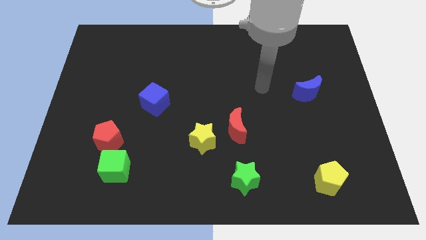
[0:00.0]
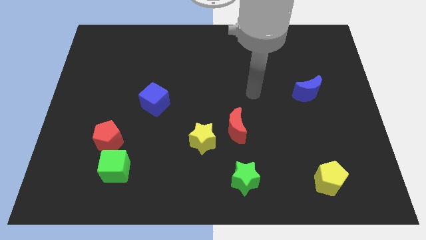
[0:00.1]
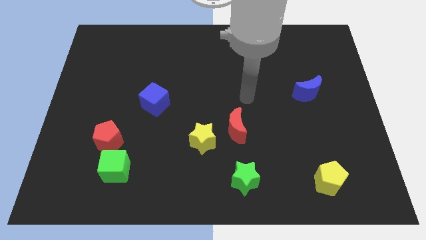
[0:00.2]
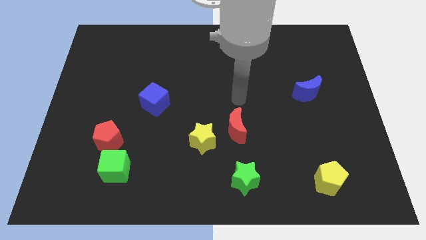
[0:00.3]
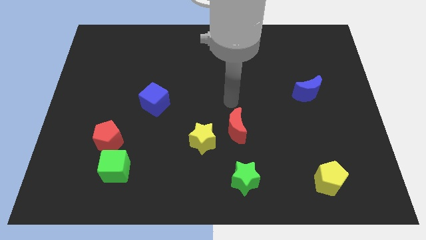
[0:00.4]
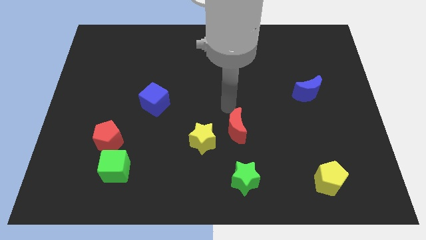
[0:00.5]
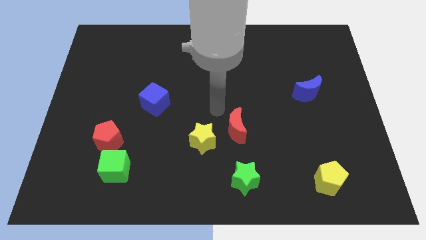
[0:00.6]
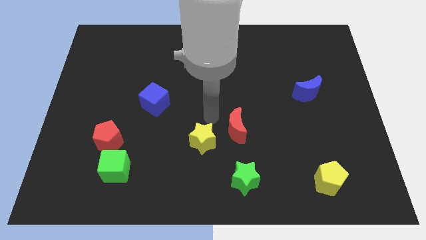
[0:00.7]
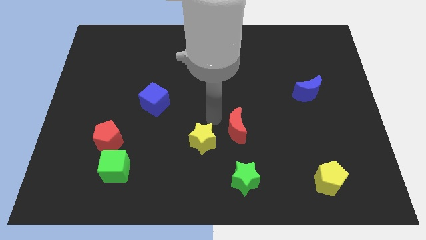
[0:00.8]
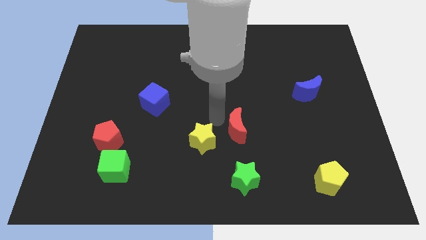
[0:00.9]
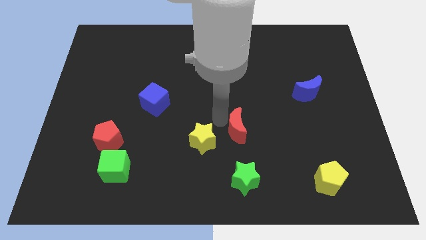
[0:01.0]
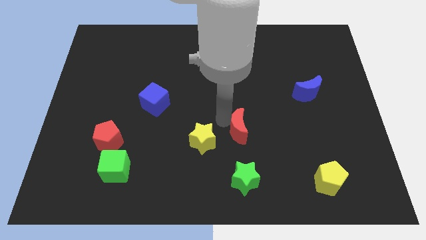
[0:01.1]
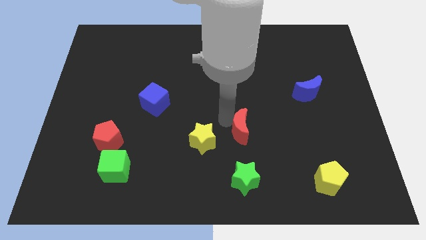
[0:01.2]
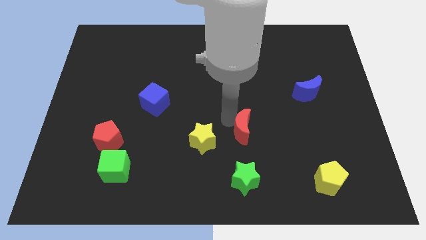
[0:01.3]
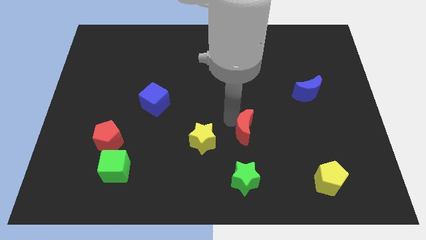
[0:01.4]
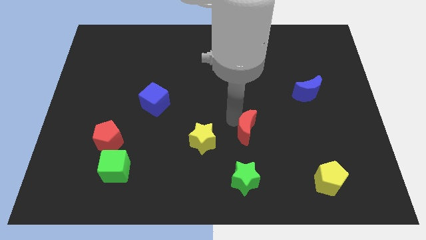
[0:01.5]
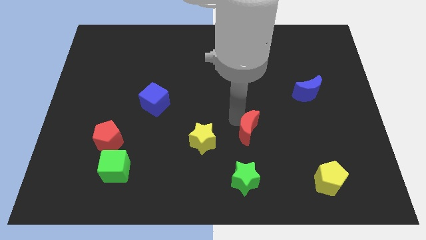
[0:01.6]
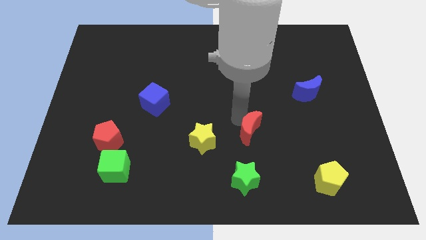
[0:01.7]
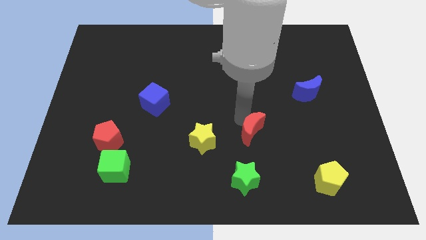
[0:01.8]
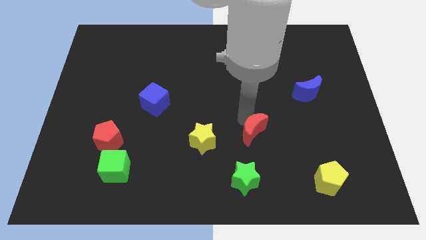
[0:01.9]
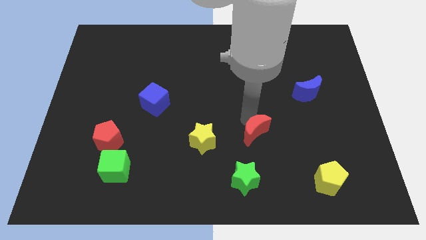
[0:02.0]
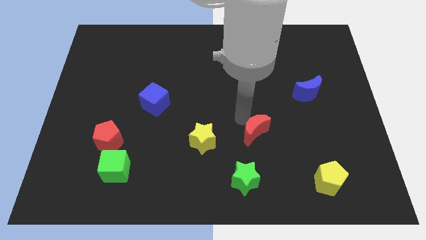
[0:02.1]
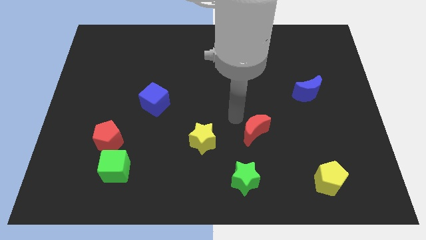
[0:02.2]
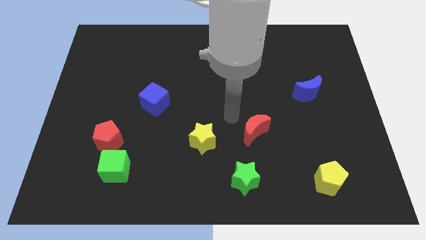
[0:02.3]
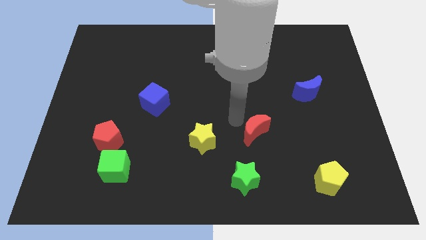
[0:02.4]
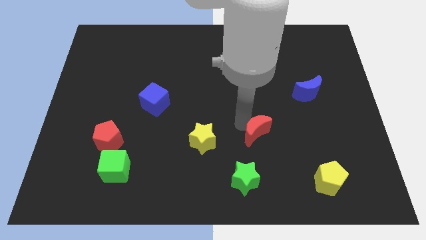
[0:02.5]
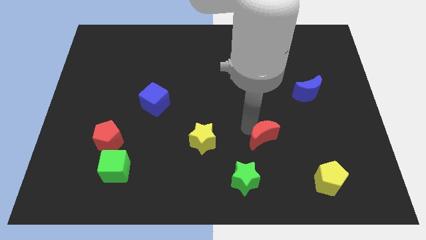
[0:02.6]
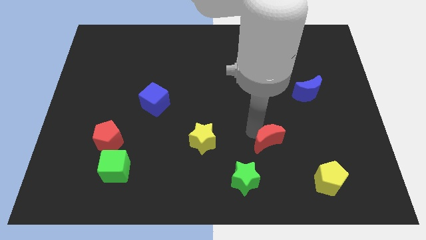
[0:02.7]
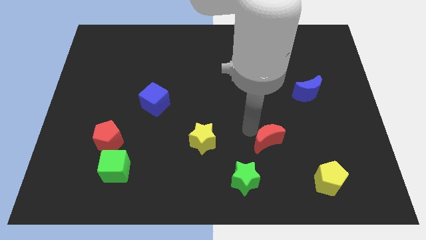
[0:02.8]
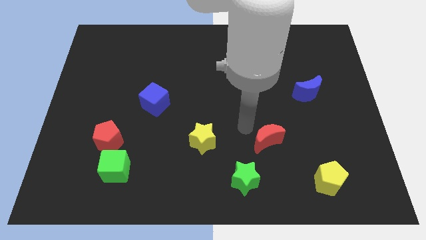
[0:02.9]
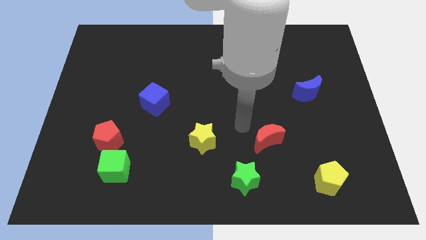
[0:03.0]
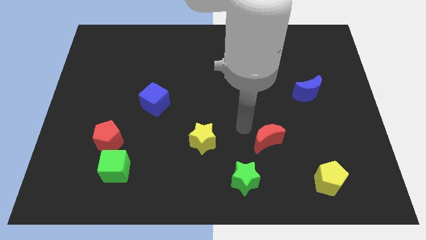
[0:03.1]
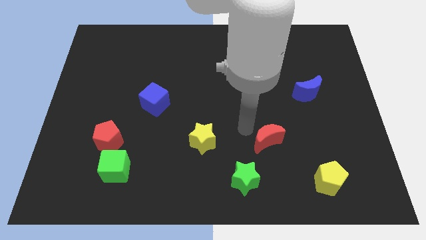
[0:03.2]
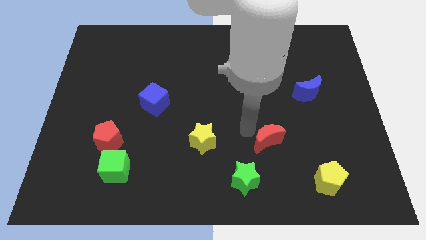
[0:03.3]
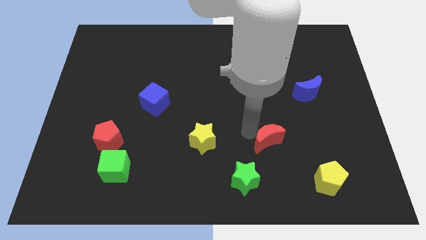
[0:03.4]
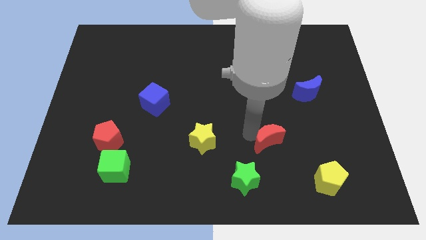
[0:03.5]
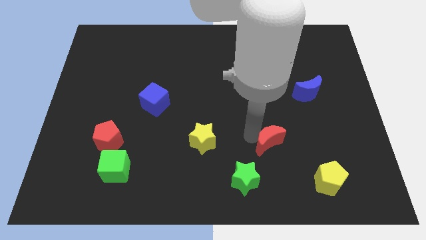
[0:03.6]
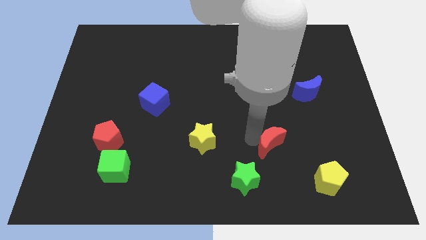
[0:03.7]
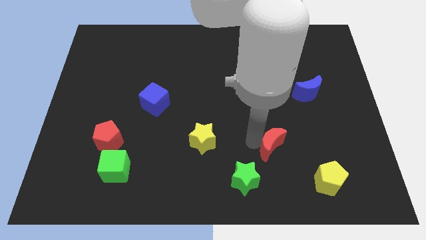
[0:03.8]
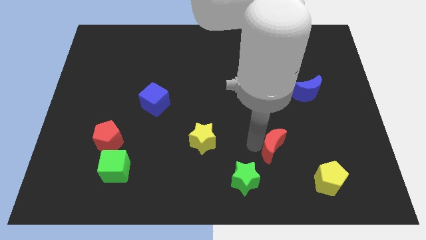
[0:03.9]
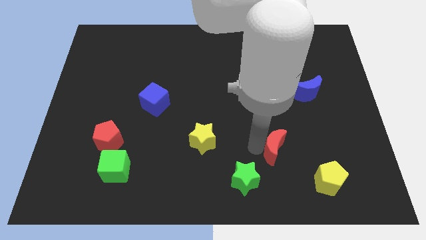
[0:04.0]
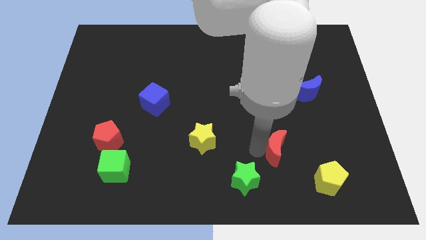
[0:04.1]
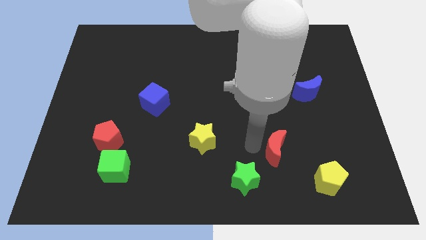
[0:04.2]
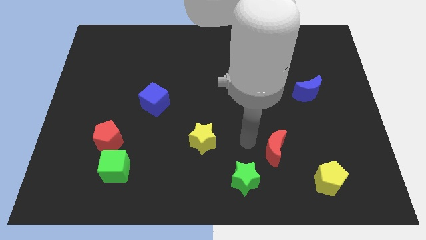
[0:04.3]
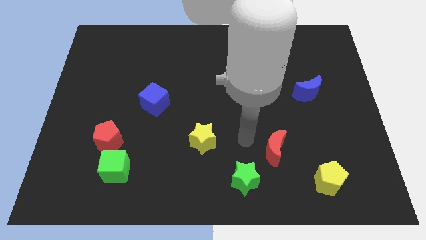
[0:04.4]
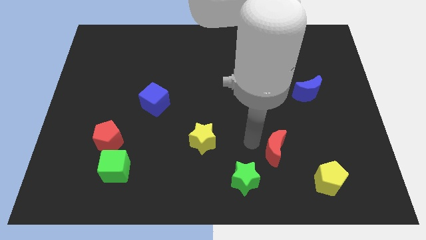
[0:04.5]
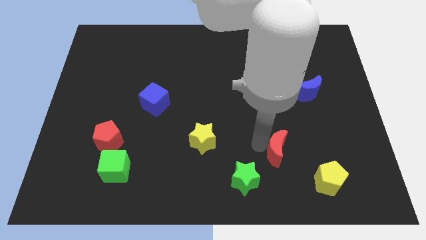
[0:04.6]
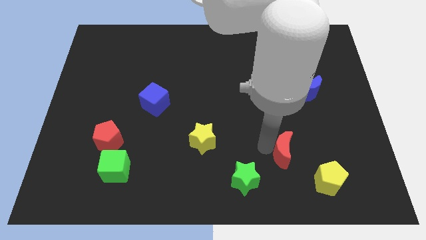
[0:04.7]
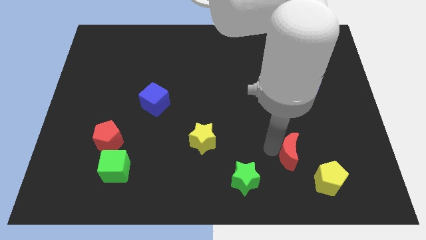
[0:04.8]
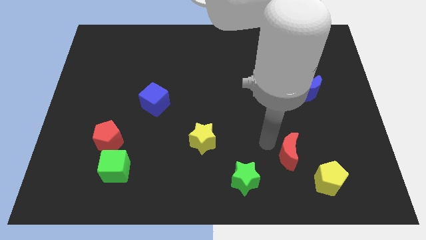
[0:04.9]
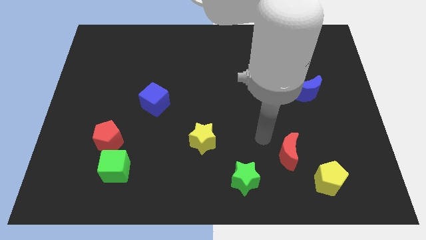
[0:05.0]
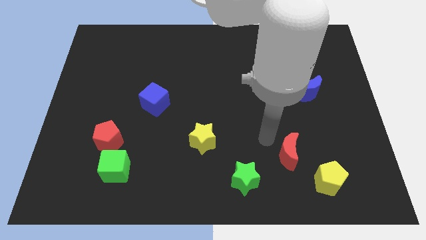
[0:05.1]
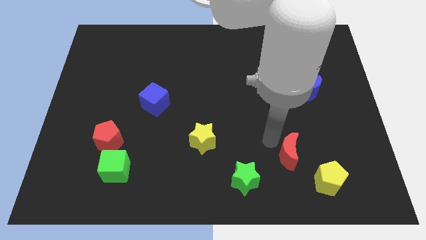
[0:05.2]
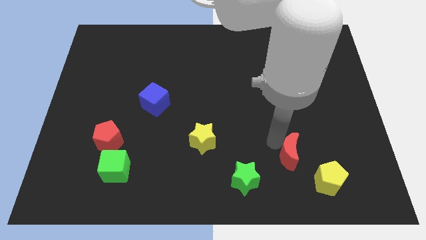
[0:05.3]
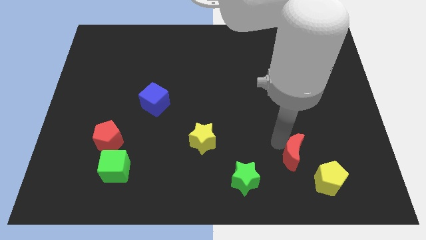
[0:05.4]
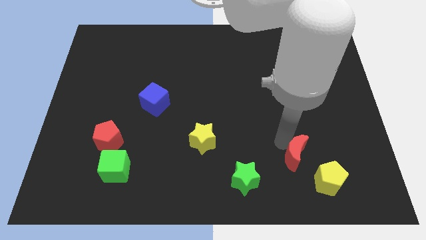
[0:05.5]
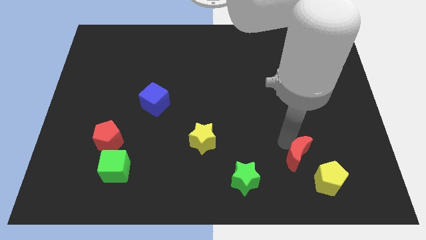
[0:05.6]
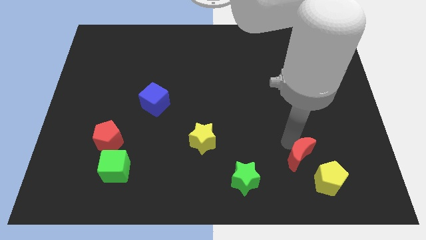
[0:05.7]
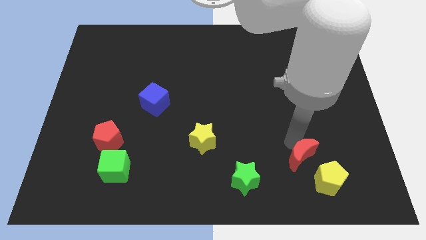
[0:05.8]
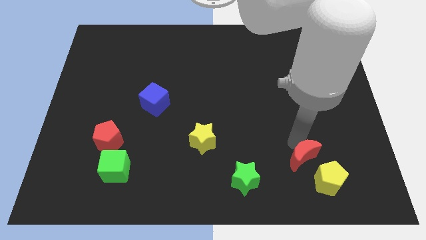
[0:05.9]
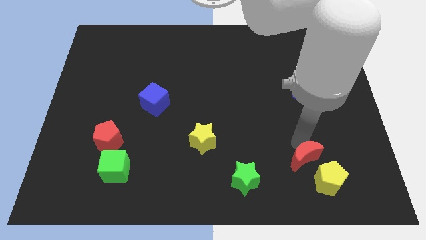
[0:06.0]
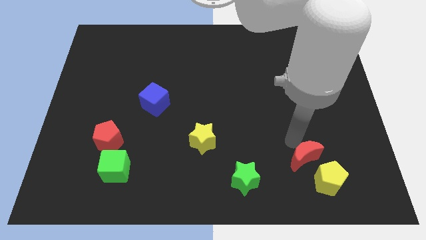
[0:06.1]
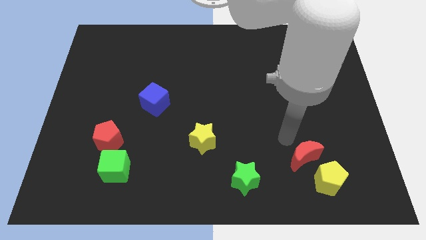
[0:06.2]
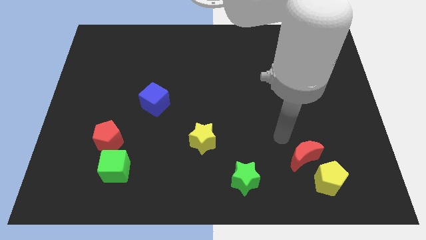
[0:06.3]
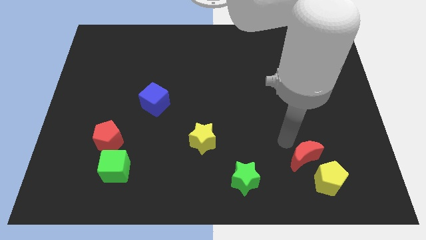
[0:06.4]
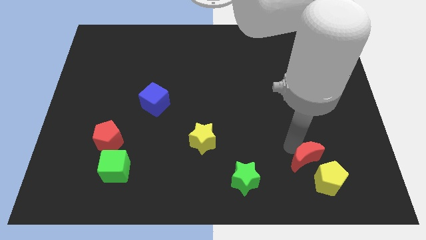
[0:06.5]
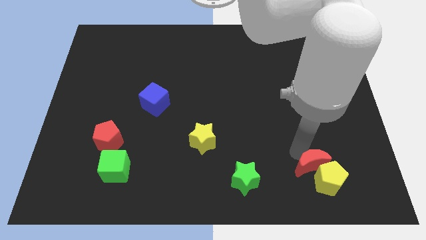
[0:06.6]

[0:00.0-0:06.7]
slide the red moon towards the yellow pentagon

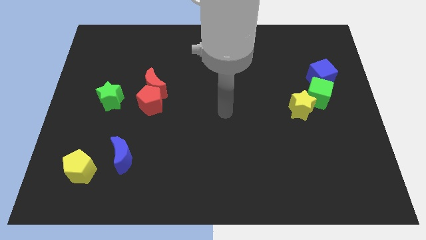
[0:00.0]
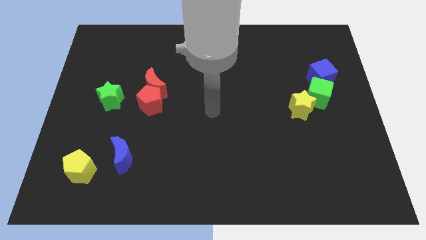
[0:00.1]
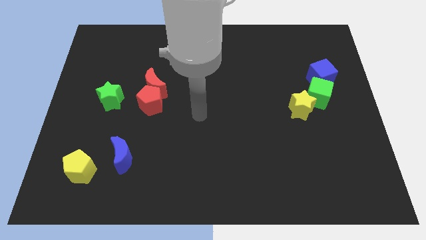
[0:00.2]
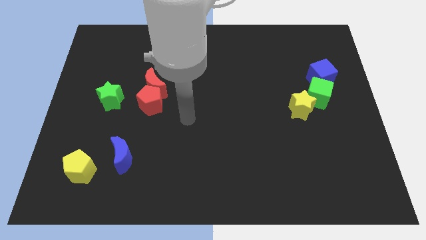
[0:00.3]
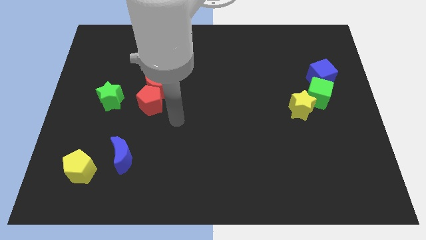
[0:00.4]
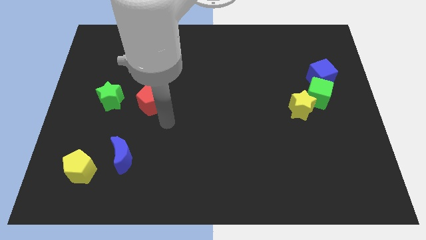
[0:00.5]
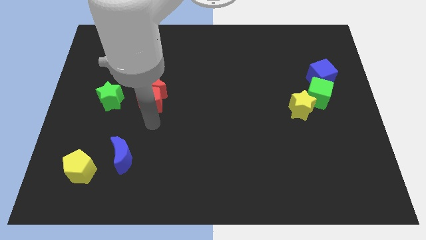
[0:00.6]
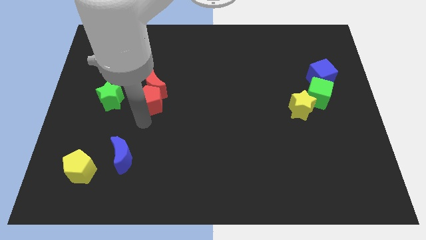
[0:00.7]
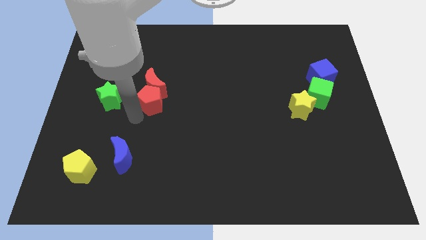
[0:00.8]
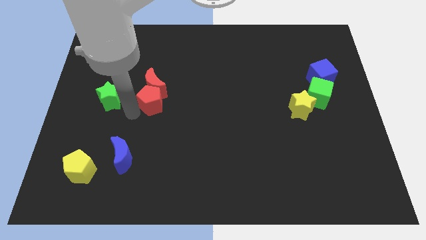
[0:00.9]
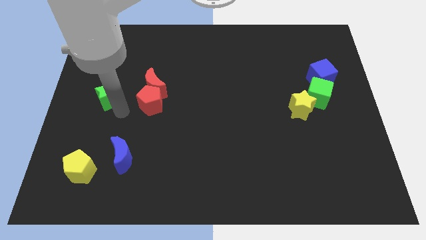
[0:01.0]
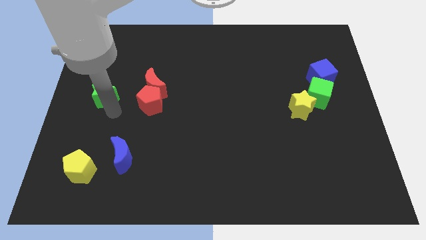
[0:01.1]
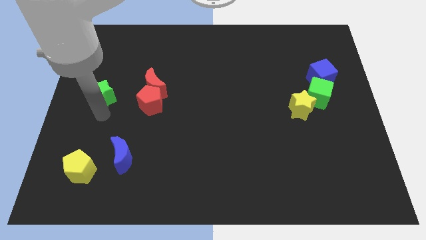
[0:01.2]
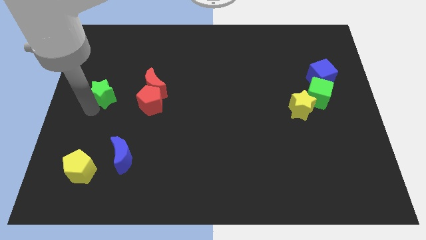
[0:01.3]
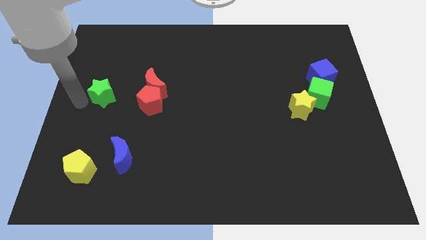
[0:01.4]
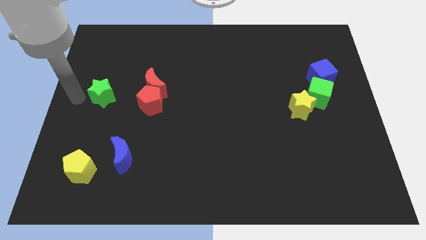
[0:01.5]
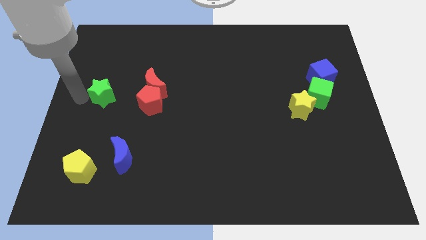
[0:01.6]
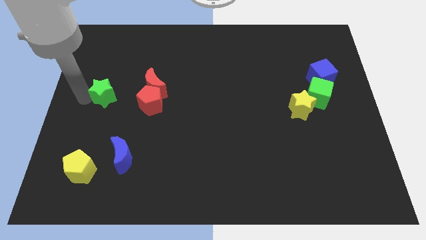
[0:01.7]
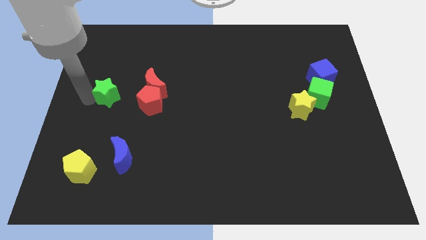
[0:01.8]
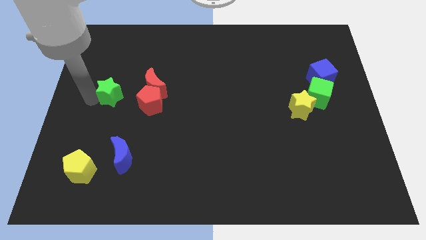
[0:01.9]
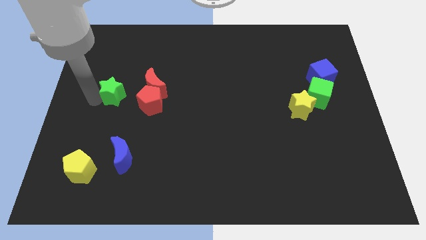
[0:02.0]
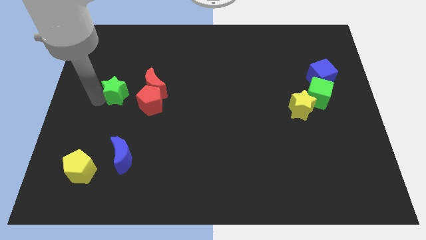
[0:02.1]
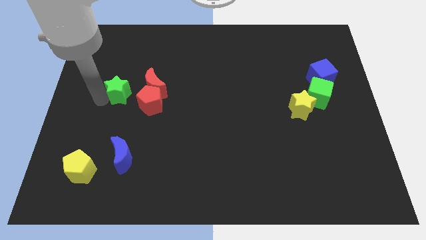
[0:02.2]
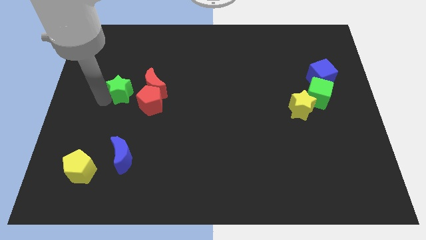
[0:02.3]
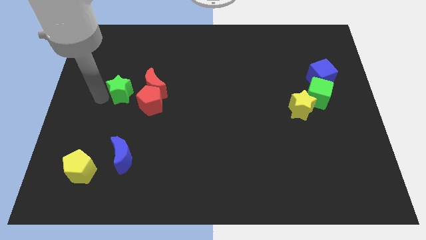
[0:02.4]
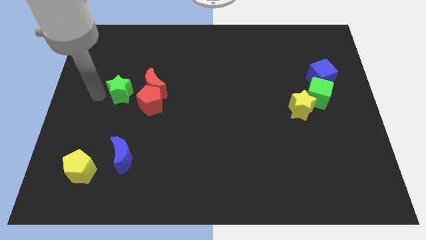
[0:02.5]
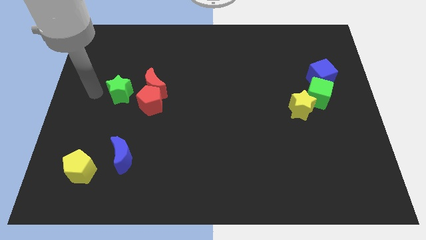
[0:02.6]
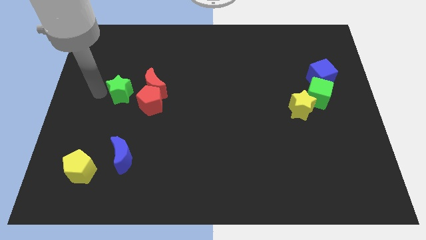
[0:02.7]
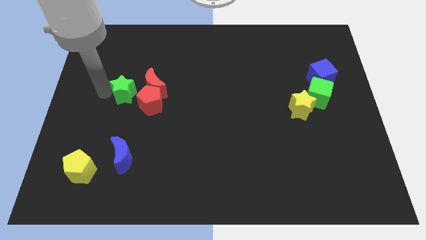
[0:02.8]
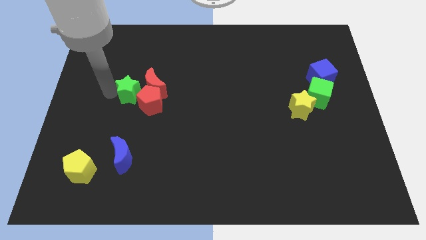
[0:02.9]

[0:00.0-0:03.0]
slide the green star to the red moon
